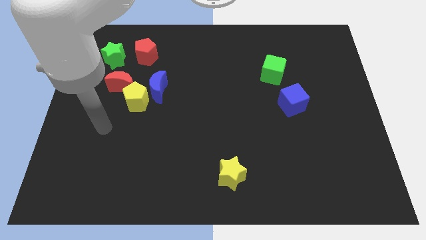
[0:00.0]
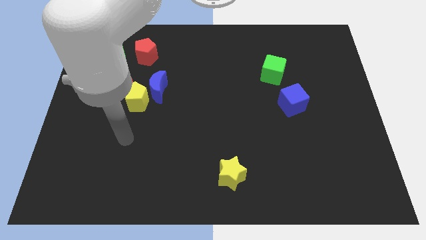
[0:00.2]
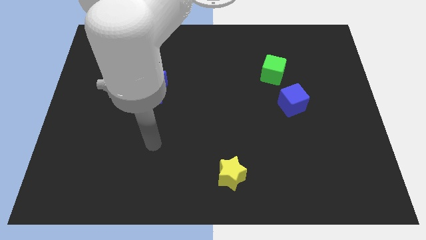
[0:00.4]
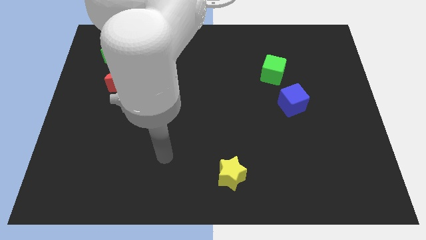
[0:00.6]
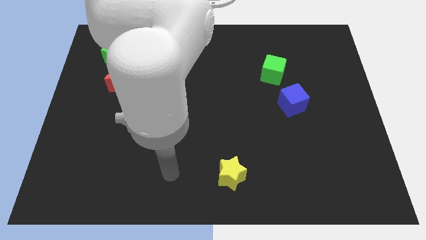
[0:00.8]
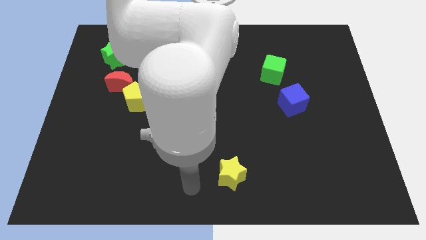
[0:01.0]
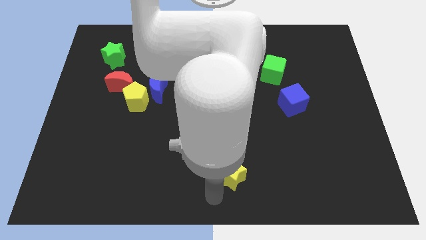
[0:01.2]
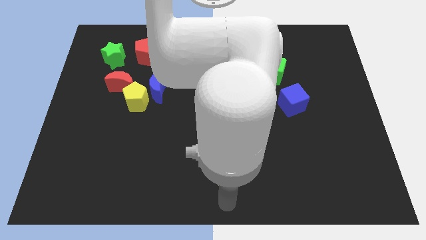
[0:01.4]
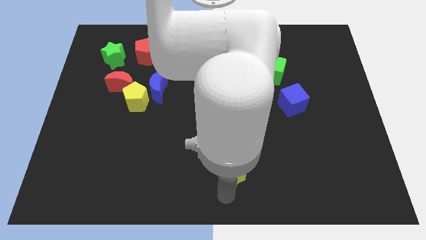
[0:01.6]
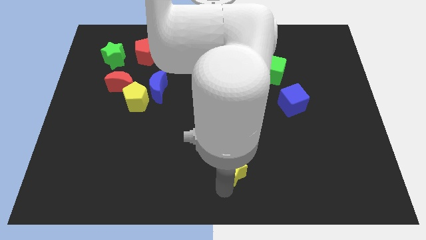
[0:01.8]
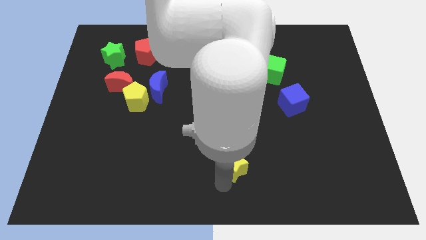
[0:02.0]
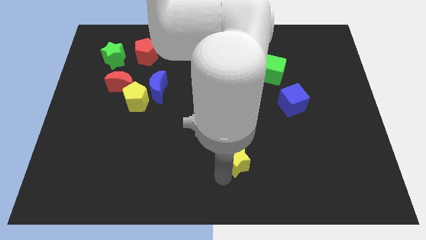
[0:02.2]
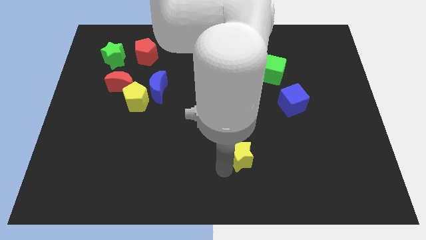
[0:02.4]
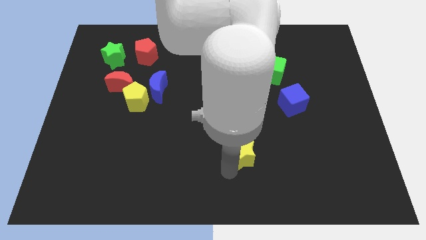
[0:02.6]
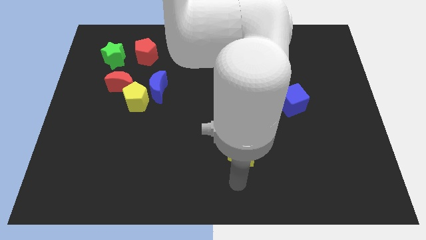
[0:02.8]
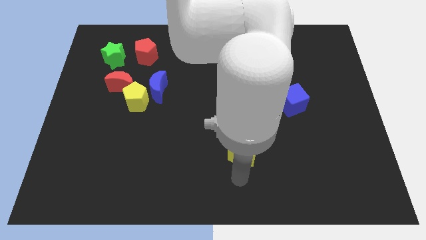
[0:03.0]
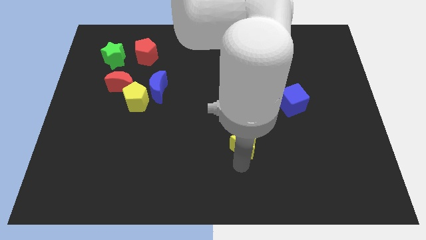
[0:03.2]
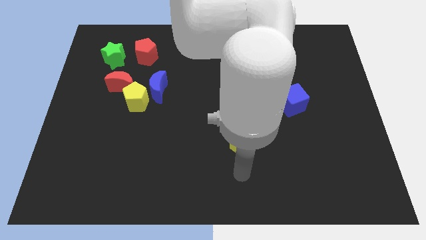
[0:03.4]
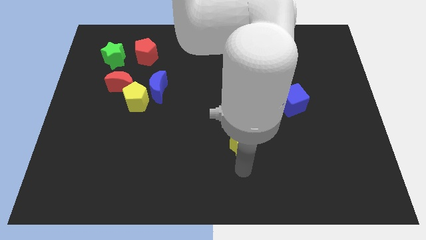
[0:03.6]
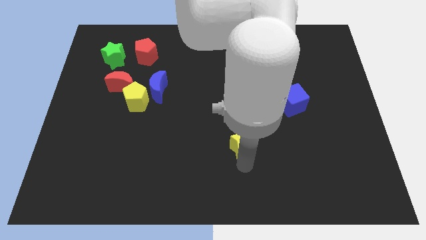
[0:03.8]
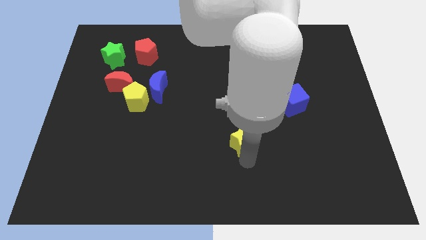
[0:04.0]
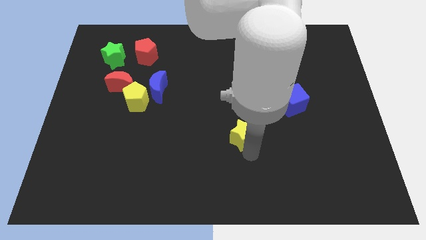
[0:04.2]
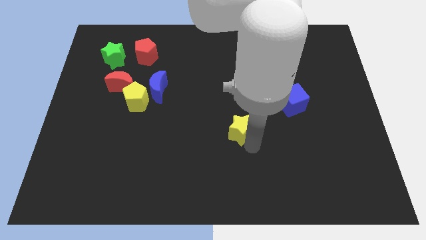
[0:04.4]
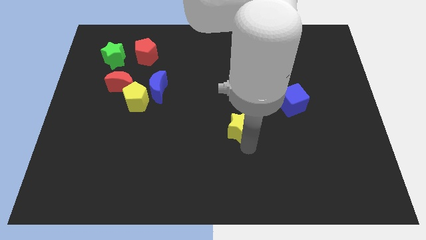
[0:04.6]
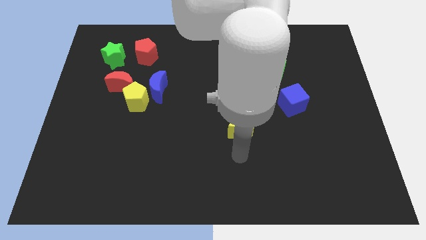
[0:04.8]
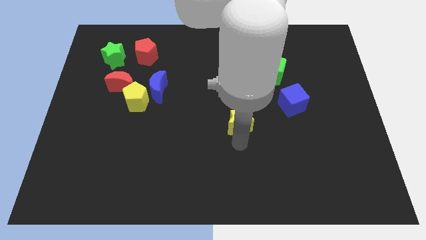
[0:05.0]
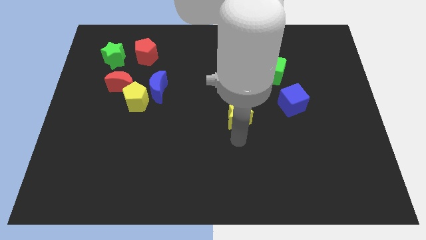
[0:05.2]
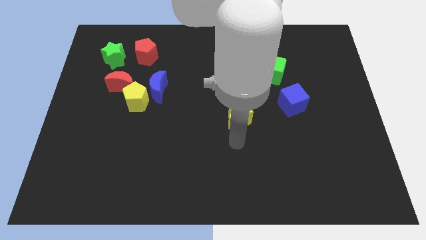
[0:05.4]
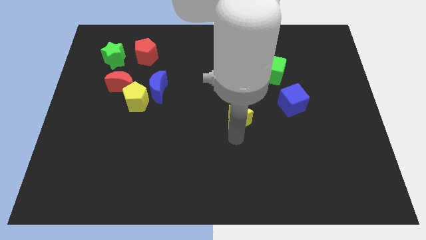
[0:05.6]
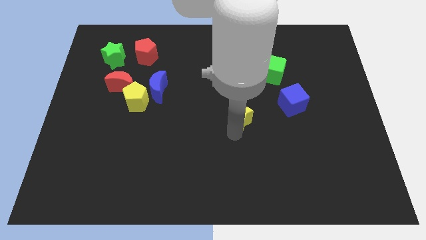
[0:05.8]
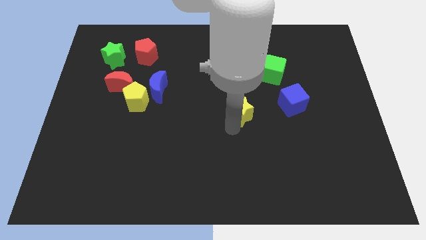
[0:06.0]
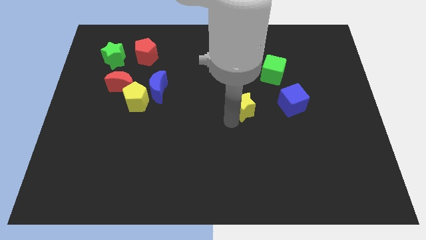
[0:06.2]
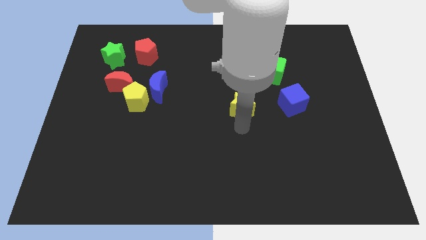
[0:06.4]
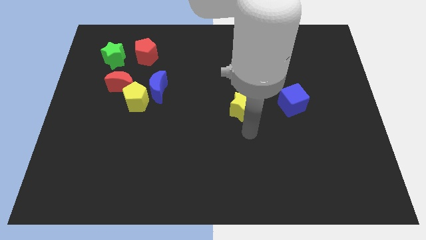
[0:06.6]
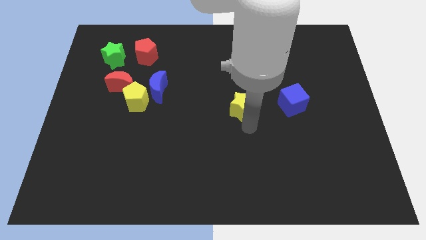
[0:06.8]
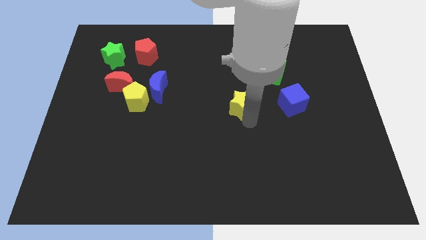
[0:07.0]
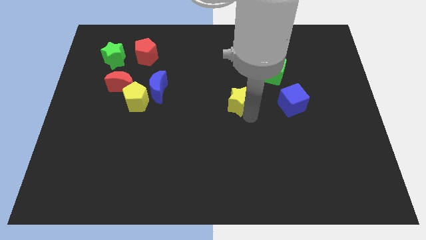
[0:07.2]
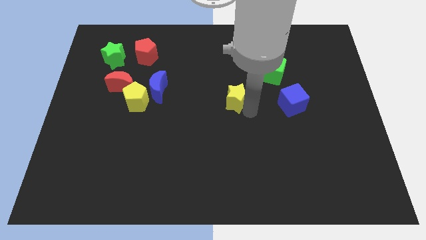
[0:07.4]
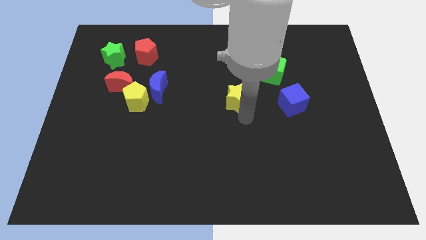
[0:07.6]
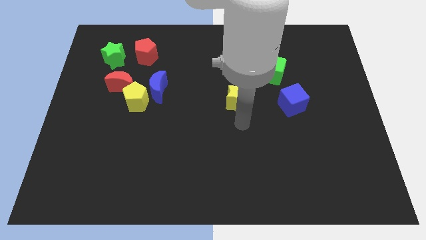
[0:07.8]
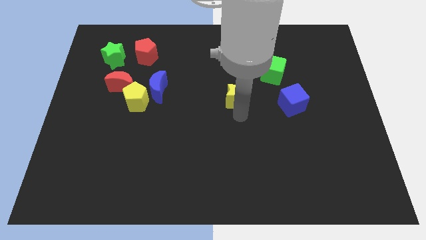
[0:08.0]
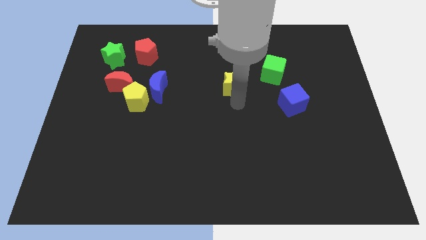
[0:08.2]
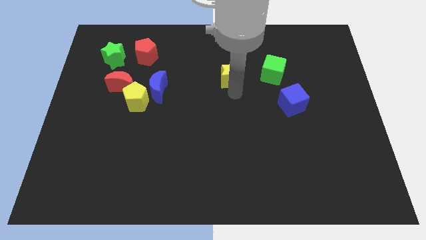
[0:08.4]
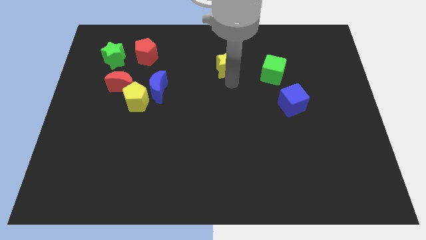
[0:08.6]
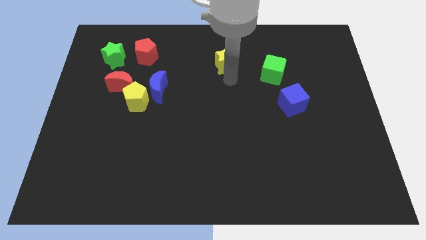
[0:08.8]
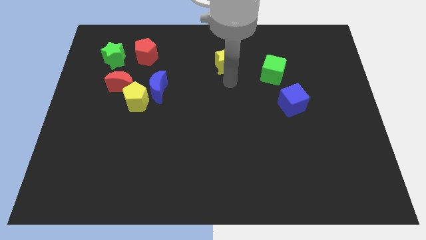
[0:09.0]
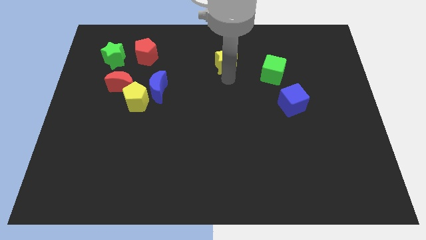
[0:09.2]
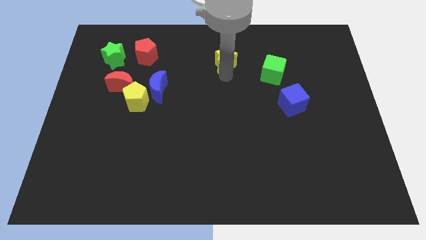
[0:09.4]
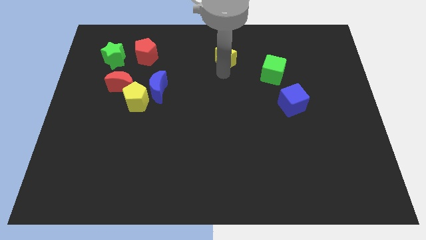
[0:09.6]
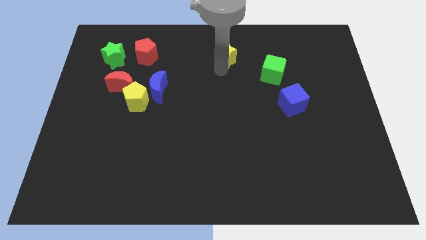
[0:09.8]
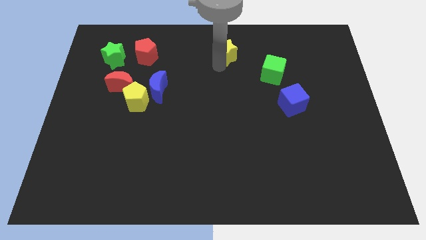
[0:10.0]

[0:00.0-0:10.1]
slide the yellow star to the top side

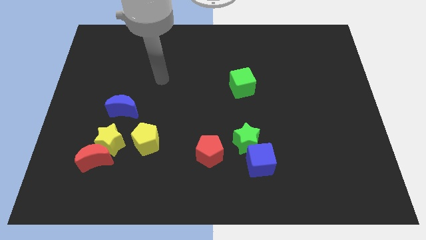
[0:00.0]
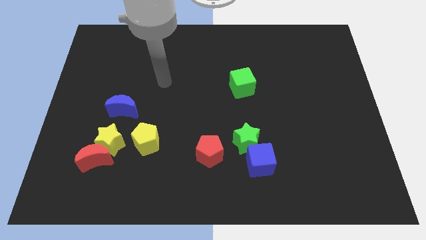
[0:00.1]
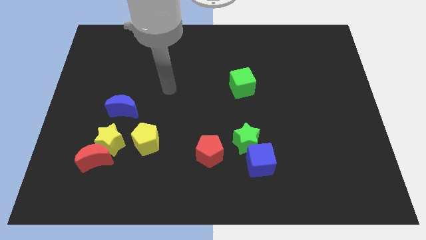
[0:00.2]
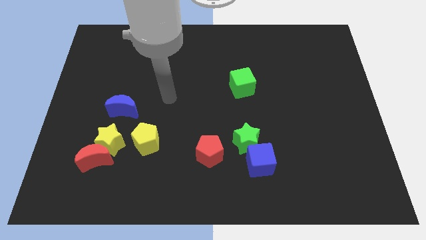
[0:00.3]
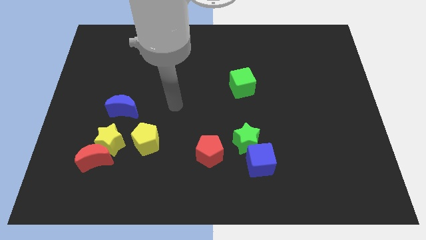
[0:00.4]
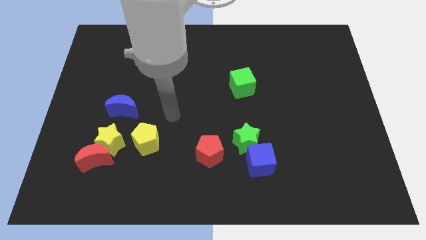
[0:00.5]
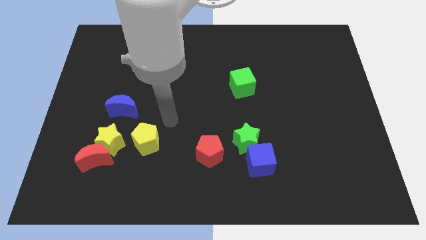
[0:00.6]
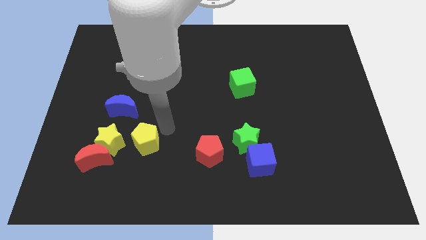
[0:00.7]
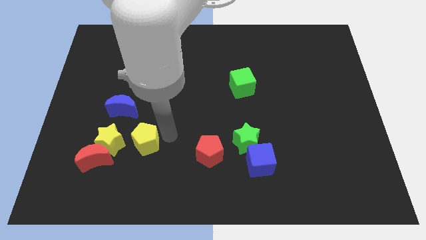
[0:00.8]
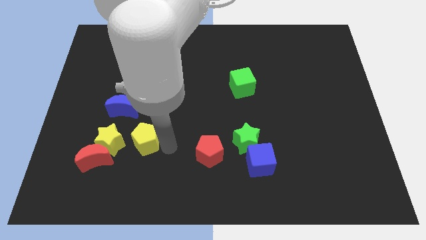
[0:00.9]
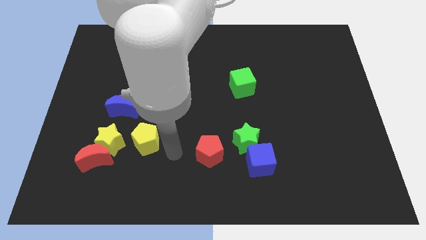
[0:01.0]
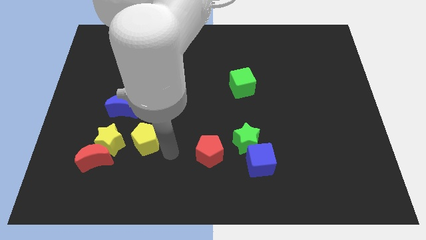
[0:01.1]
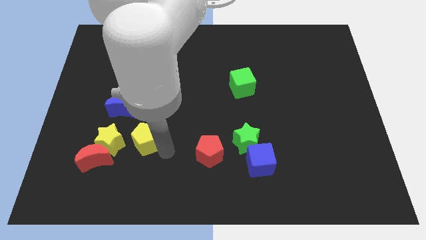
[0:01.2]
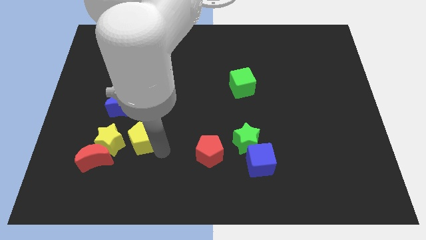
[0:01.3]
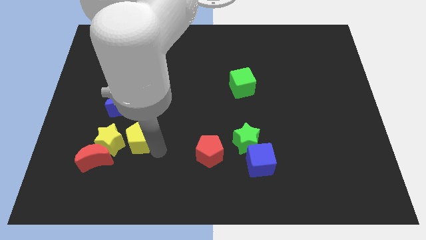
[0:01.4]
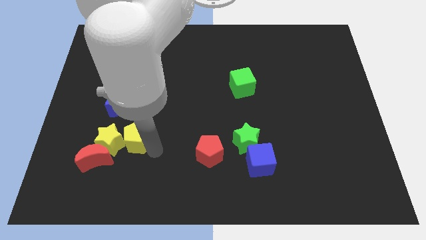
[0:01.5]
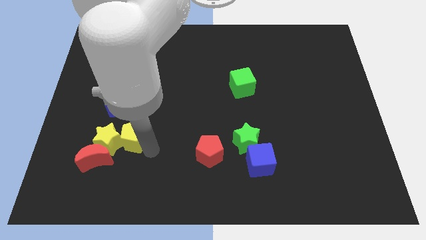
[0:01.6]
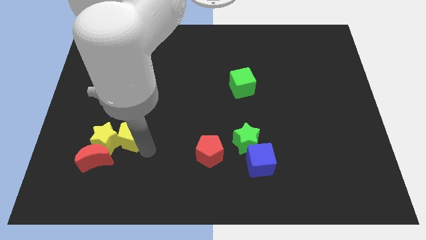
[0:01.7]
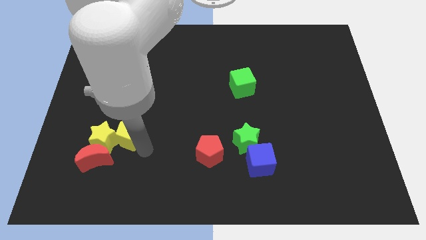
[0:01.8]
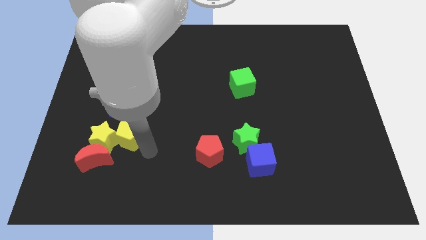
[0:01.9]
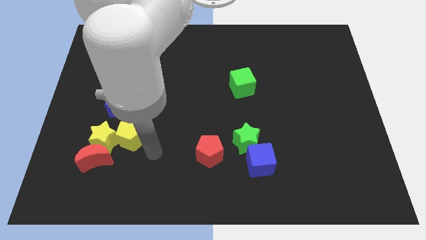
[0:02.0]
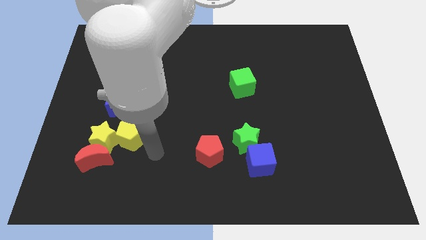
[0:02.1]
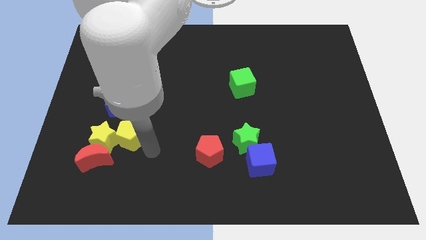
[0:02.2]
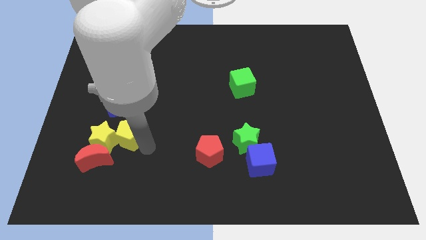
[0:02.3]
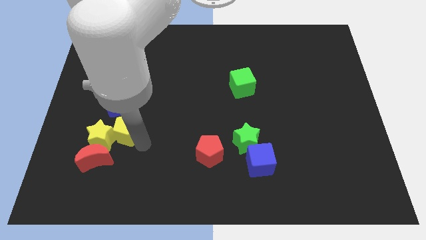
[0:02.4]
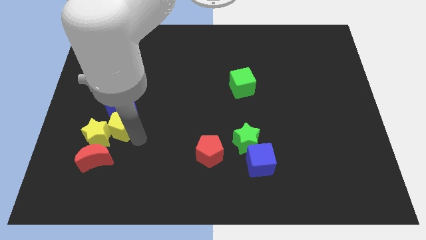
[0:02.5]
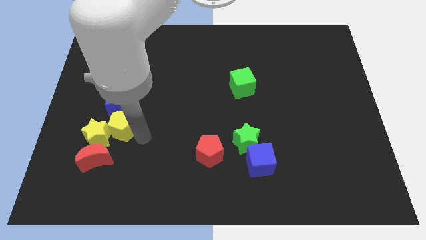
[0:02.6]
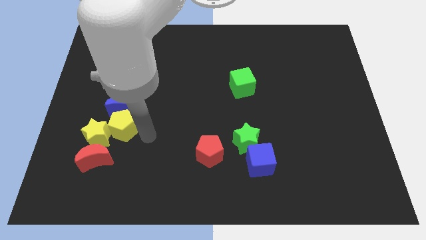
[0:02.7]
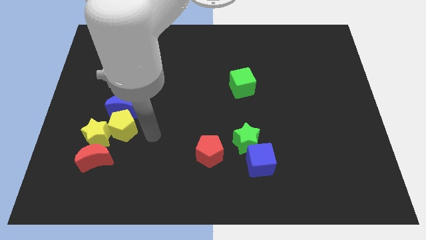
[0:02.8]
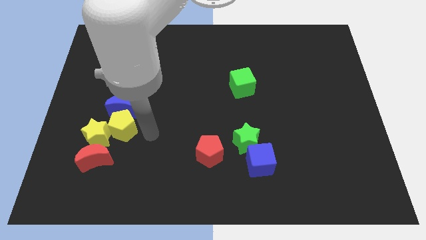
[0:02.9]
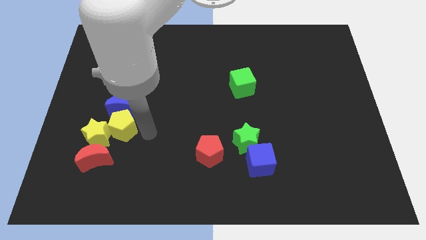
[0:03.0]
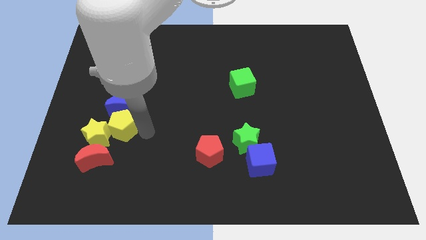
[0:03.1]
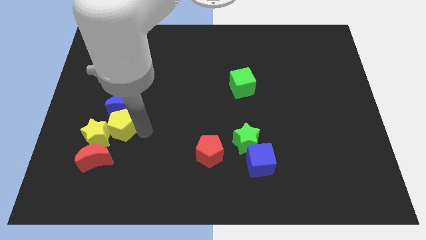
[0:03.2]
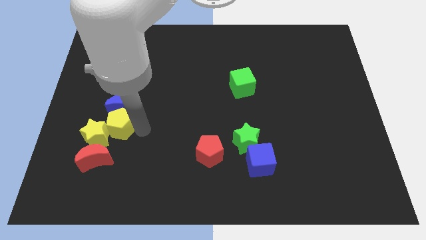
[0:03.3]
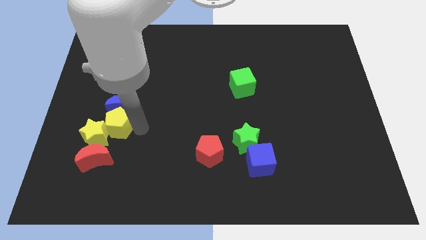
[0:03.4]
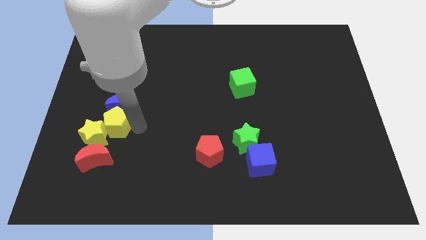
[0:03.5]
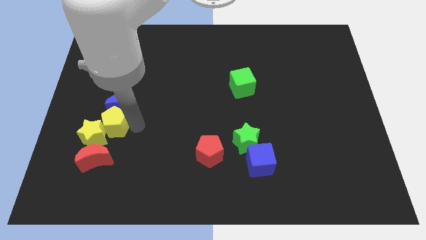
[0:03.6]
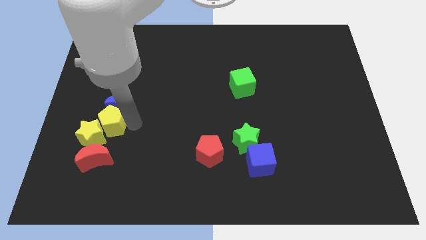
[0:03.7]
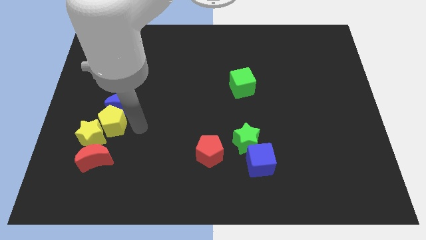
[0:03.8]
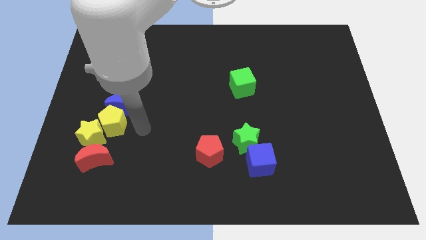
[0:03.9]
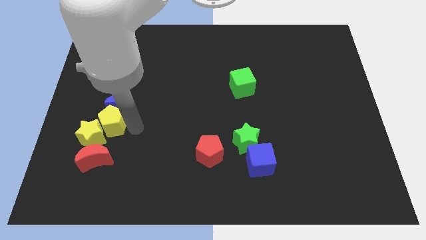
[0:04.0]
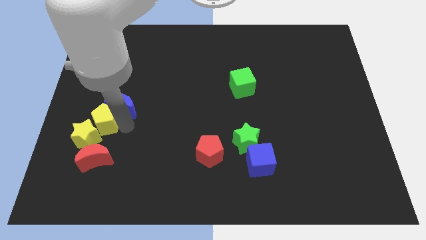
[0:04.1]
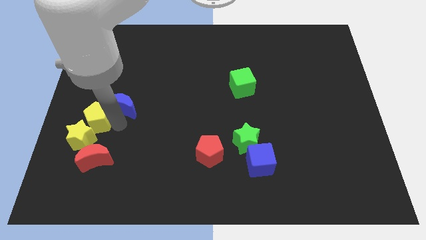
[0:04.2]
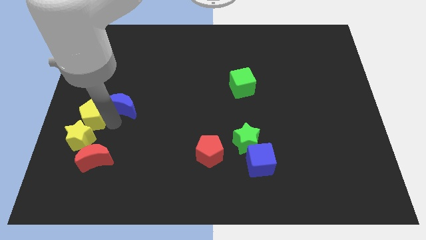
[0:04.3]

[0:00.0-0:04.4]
put the yellow pentagon to the left side
